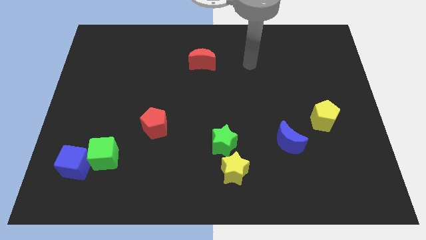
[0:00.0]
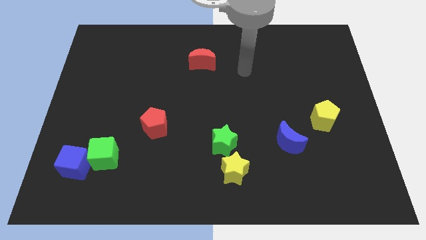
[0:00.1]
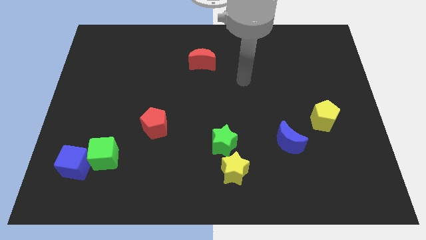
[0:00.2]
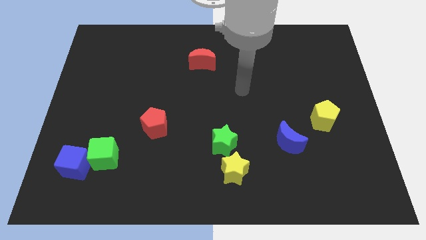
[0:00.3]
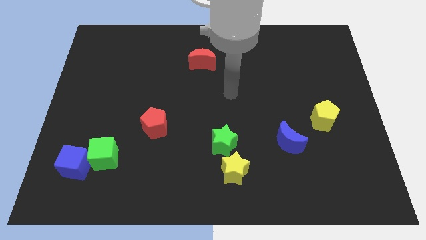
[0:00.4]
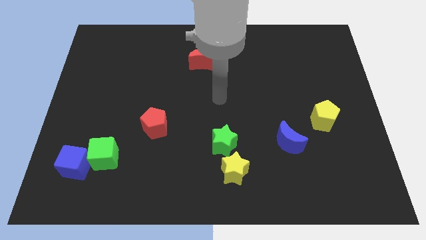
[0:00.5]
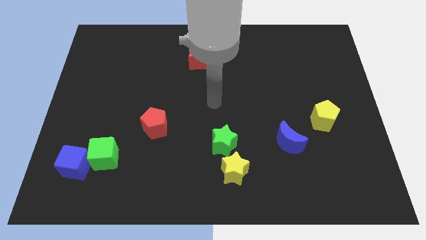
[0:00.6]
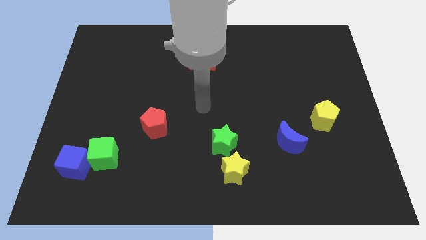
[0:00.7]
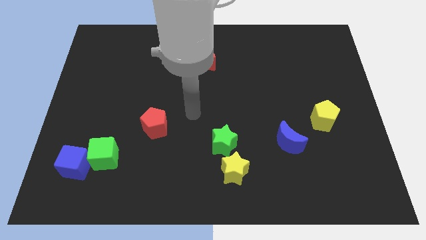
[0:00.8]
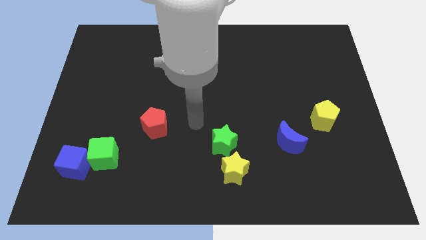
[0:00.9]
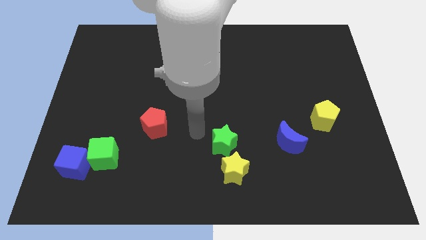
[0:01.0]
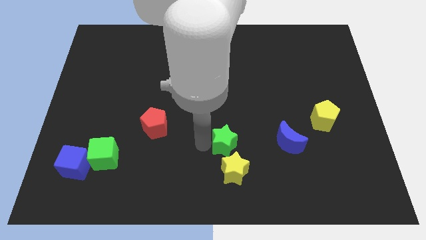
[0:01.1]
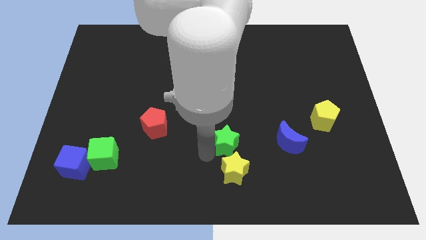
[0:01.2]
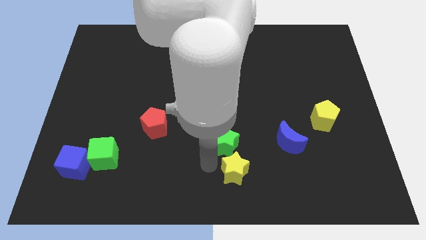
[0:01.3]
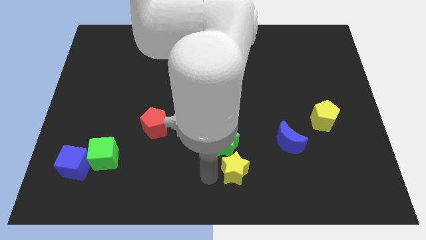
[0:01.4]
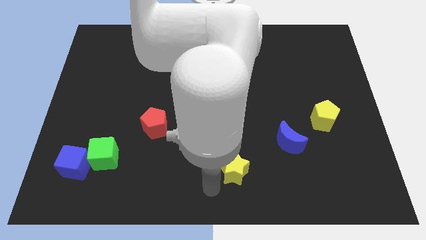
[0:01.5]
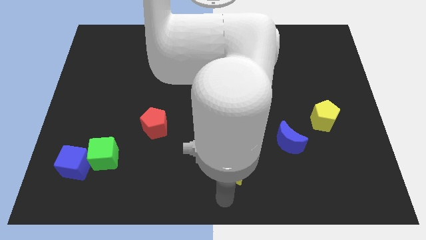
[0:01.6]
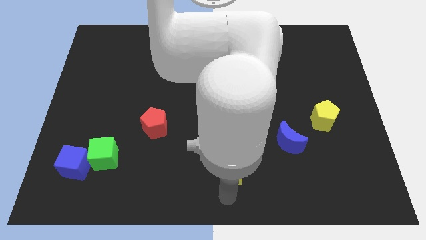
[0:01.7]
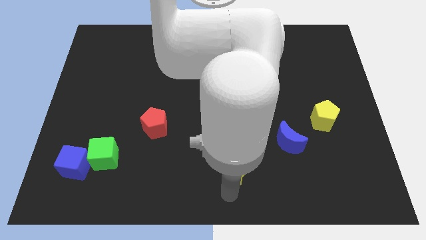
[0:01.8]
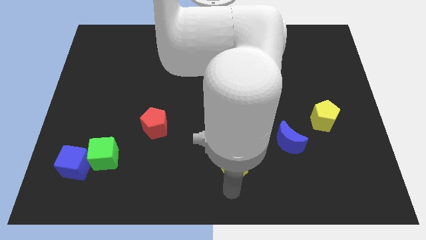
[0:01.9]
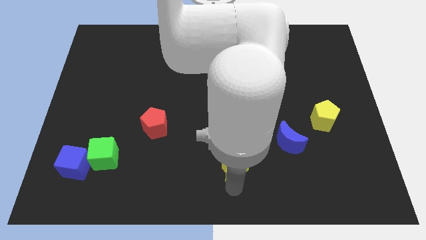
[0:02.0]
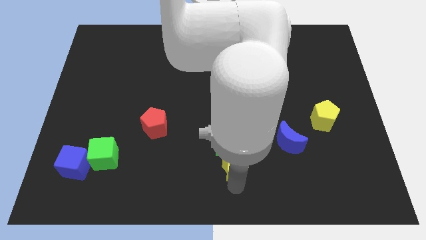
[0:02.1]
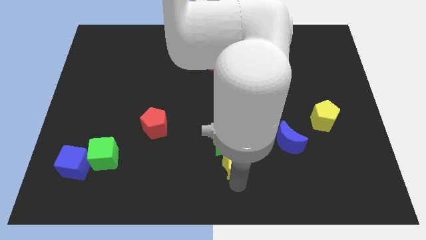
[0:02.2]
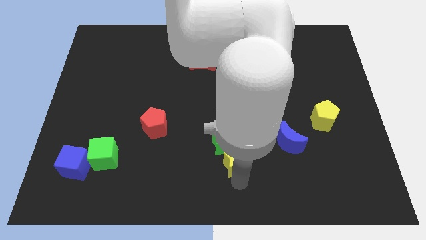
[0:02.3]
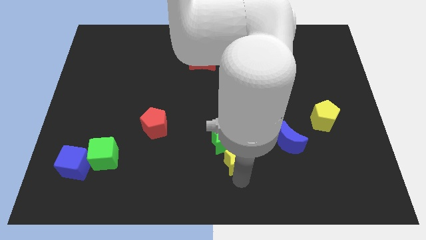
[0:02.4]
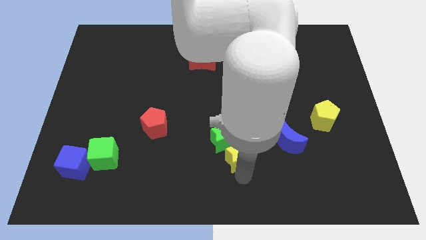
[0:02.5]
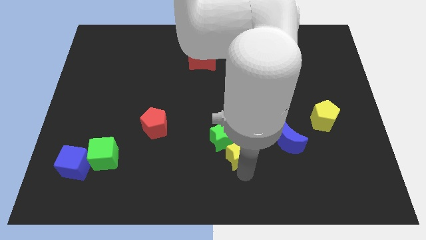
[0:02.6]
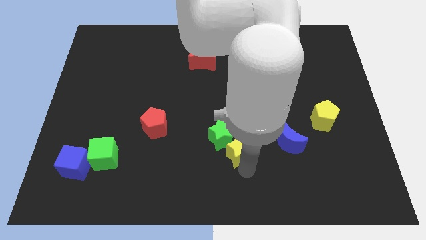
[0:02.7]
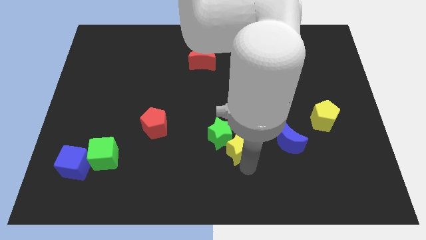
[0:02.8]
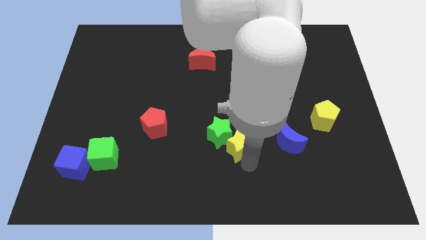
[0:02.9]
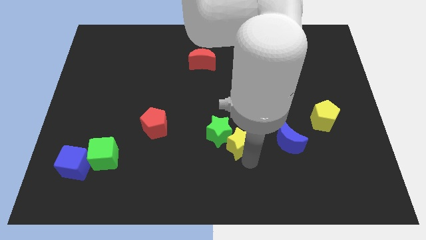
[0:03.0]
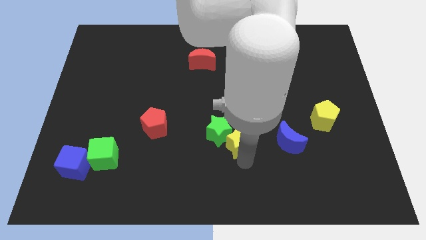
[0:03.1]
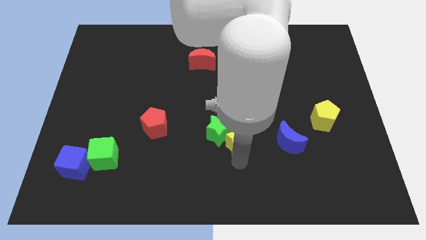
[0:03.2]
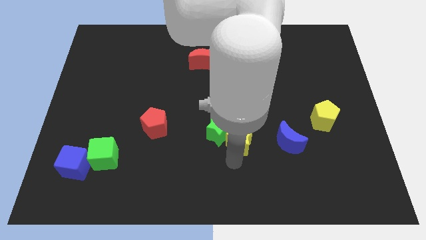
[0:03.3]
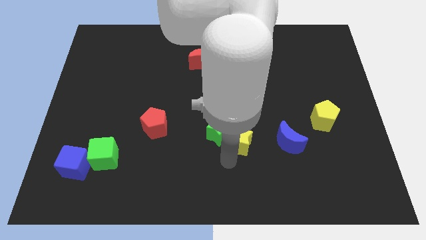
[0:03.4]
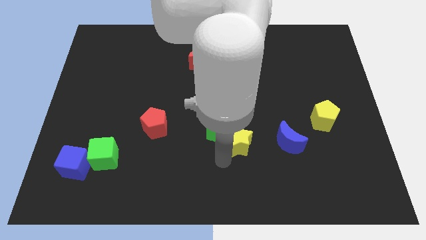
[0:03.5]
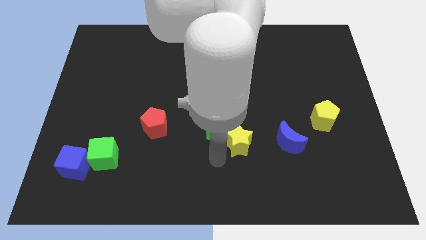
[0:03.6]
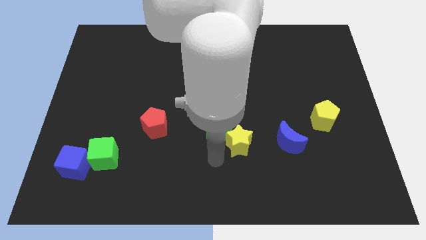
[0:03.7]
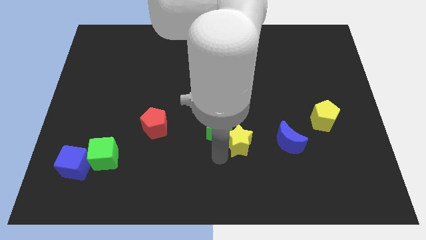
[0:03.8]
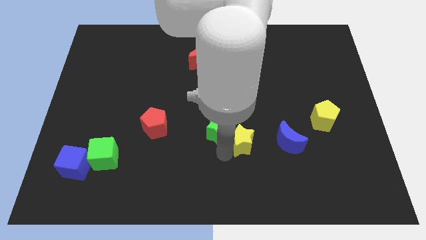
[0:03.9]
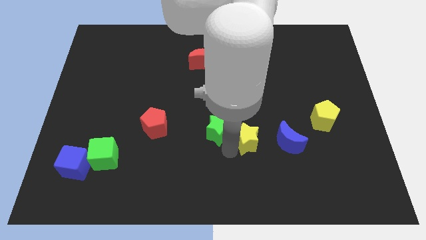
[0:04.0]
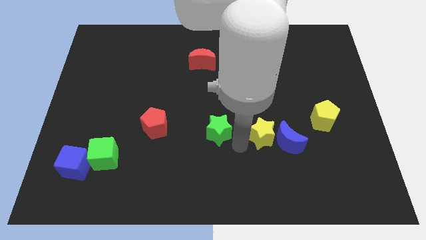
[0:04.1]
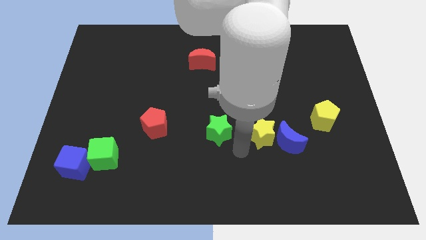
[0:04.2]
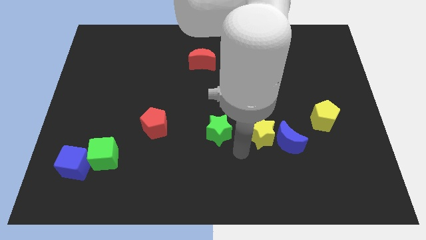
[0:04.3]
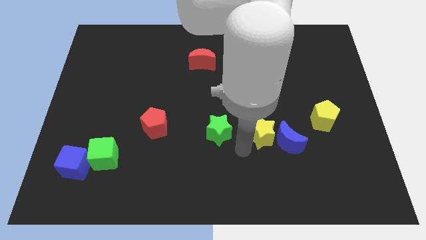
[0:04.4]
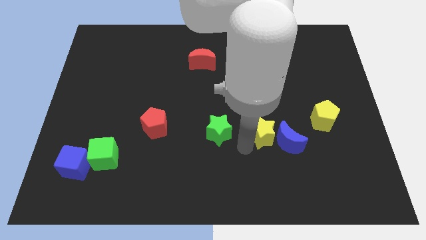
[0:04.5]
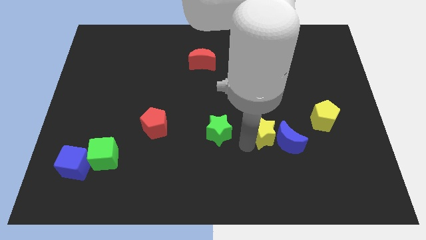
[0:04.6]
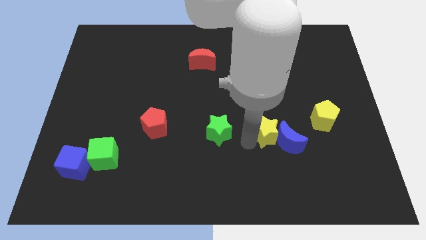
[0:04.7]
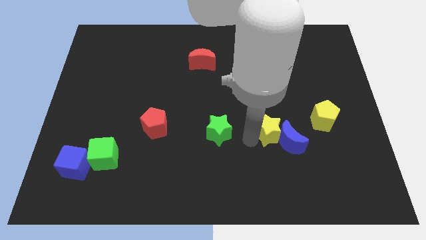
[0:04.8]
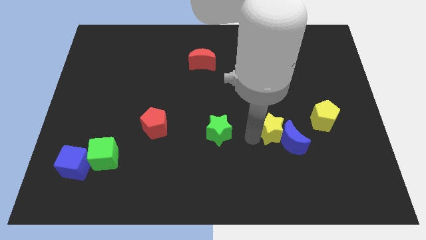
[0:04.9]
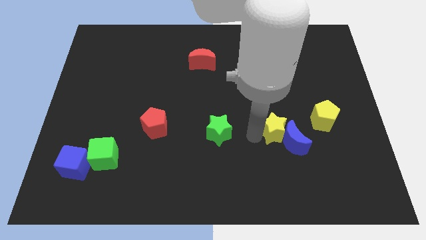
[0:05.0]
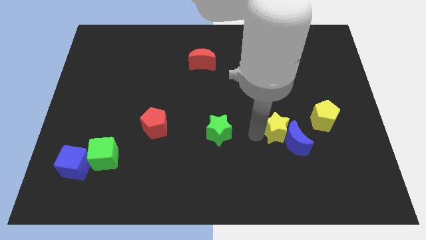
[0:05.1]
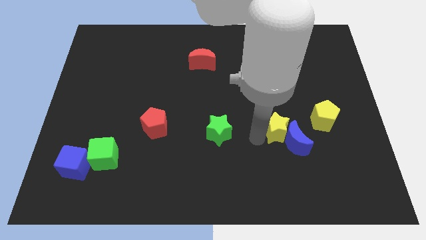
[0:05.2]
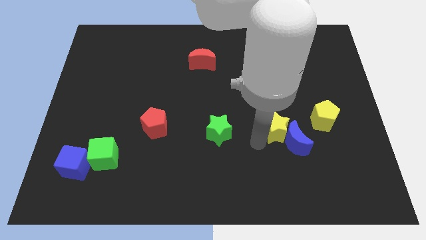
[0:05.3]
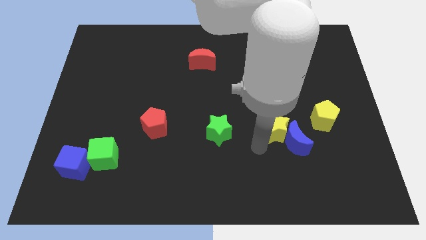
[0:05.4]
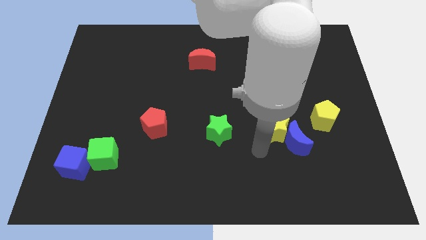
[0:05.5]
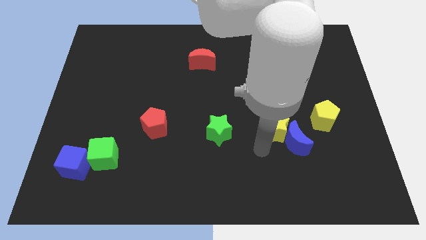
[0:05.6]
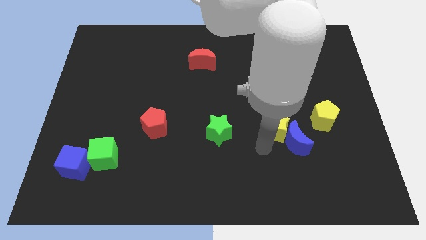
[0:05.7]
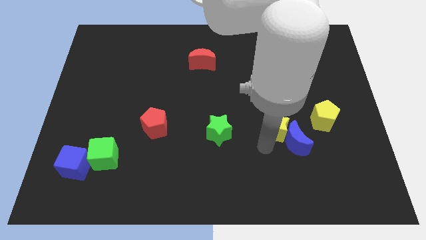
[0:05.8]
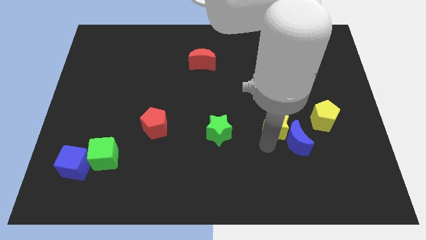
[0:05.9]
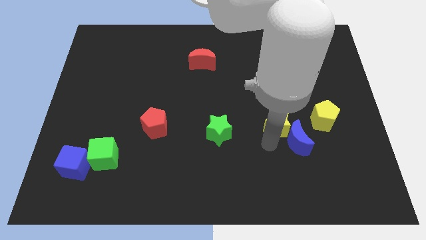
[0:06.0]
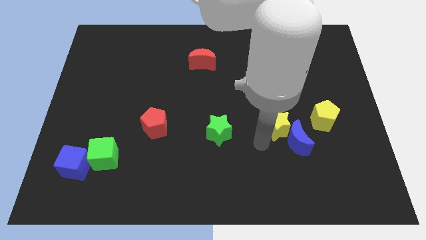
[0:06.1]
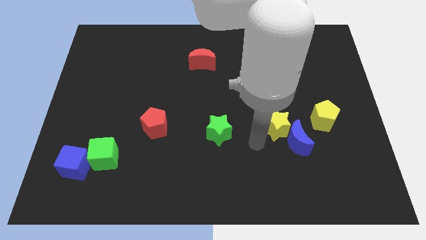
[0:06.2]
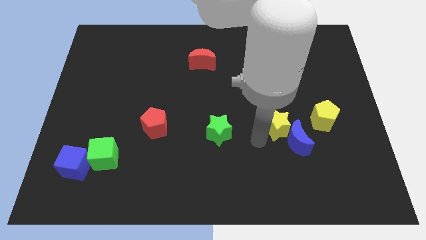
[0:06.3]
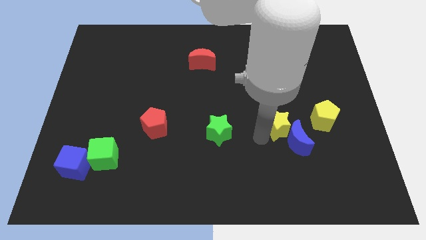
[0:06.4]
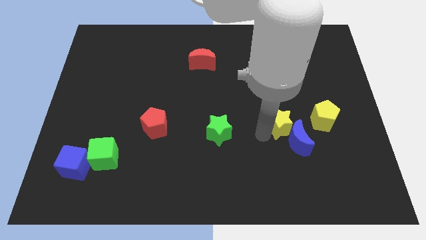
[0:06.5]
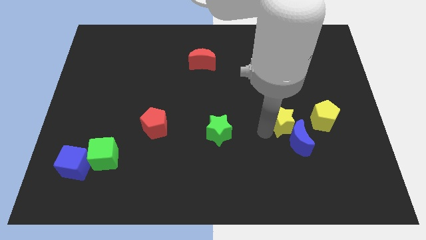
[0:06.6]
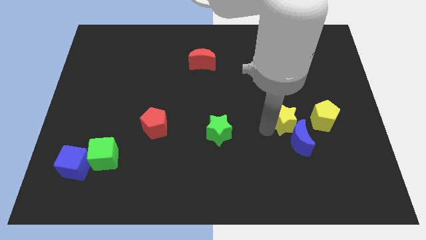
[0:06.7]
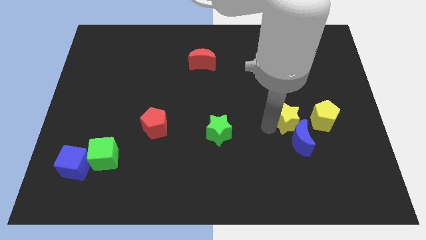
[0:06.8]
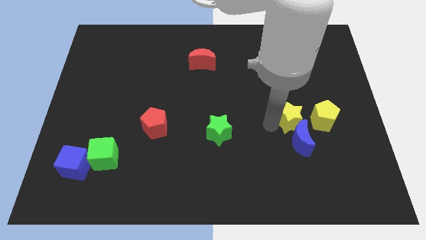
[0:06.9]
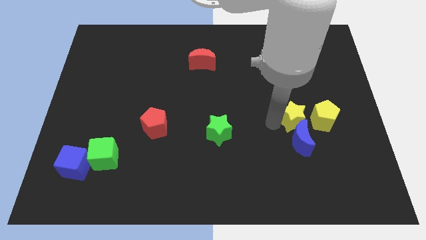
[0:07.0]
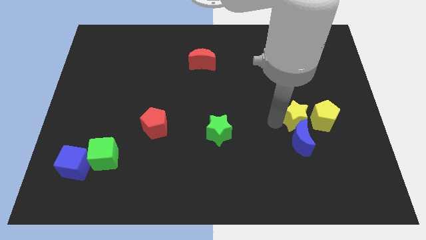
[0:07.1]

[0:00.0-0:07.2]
slide the yellow star upwards and then right

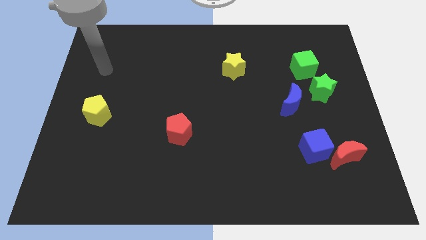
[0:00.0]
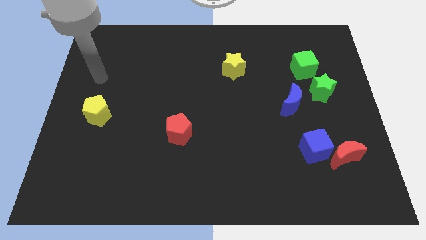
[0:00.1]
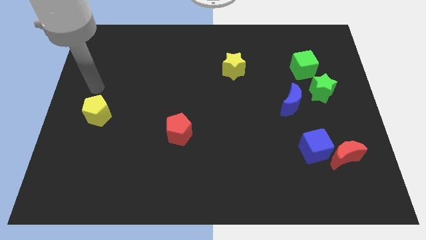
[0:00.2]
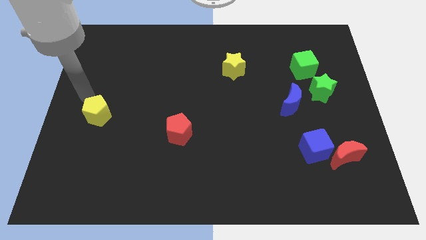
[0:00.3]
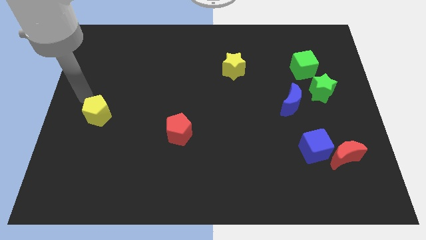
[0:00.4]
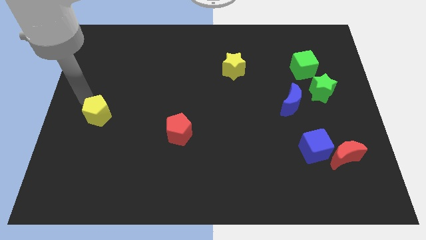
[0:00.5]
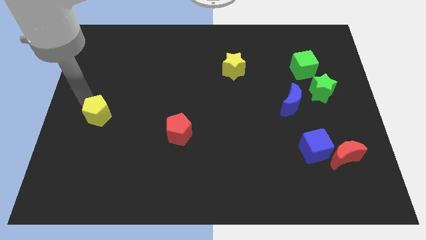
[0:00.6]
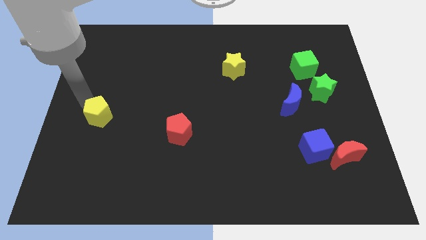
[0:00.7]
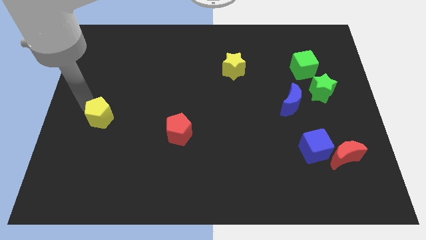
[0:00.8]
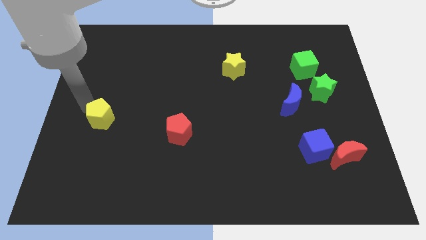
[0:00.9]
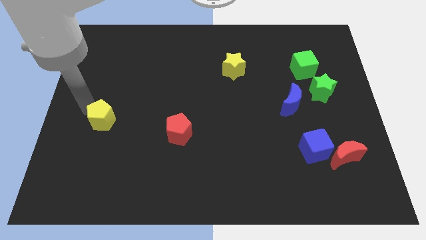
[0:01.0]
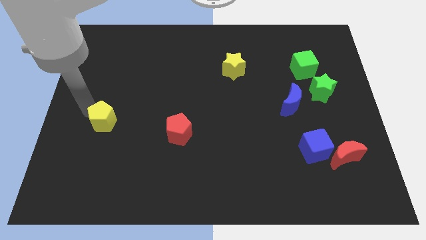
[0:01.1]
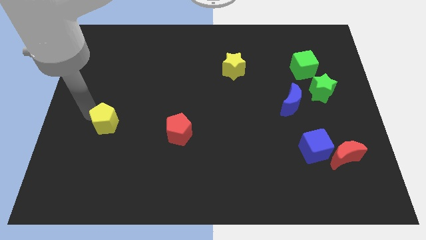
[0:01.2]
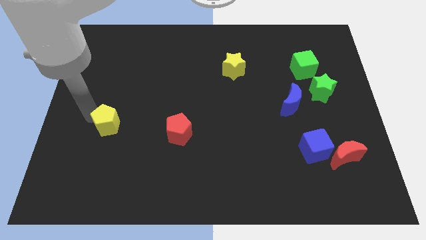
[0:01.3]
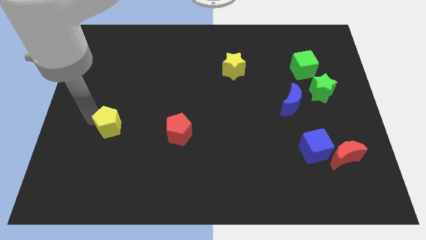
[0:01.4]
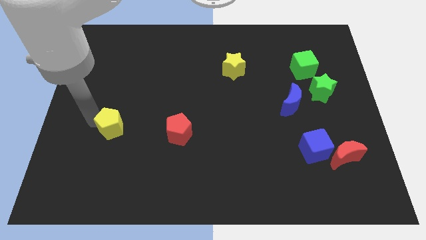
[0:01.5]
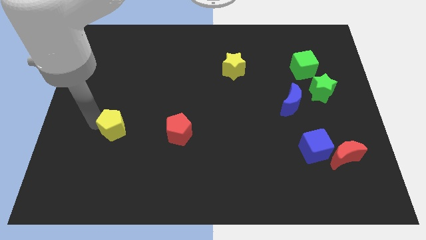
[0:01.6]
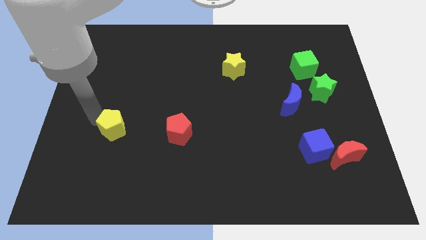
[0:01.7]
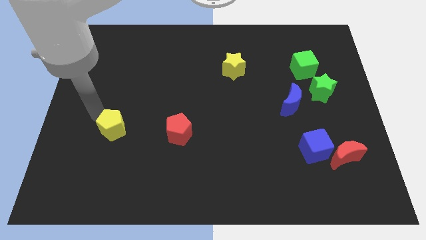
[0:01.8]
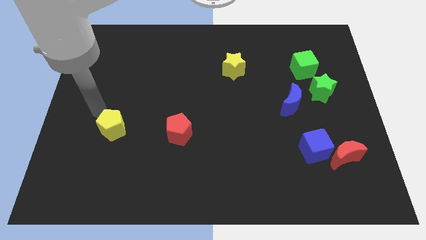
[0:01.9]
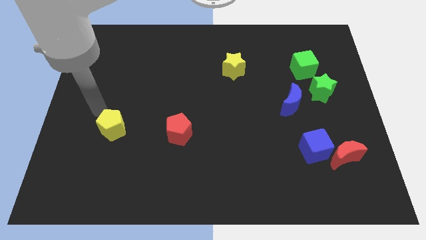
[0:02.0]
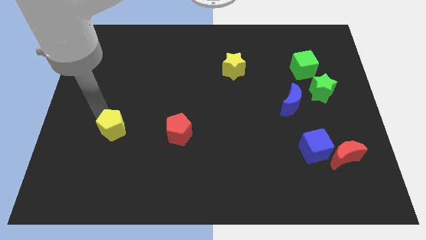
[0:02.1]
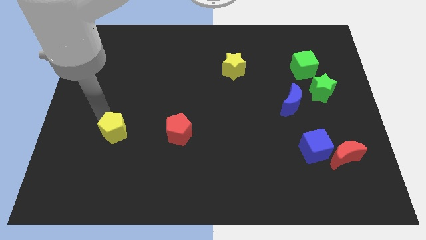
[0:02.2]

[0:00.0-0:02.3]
move the yellow pentagon a little diagonally downwards and to the right
